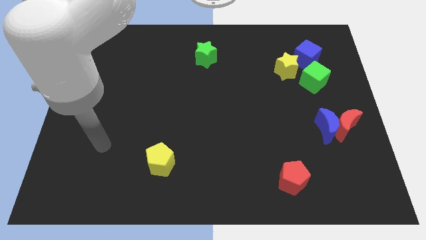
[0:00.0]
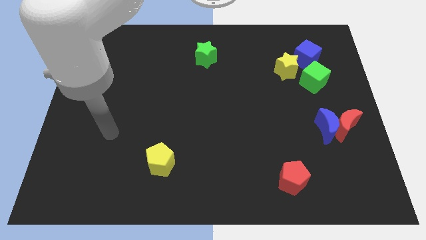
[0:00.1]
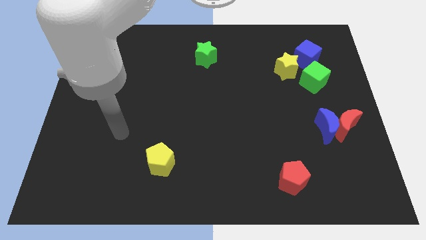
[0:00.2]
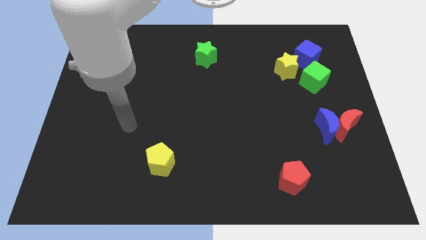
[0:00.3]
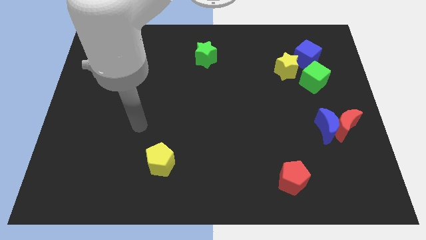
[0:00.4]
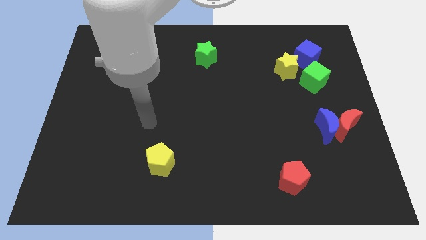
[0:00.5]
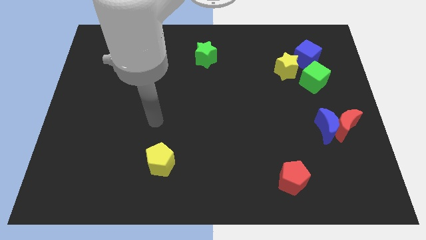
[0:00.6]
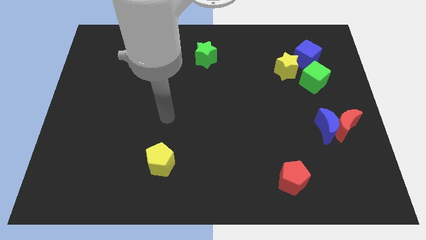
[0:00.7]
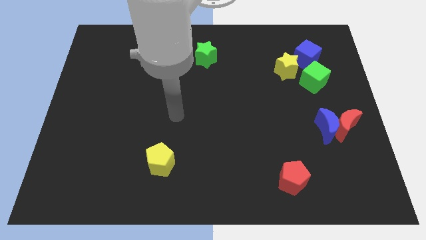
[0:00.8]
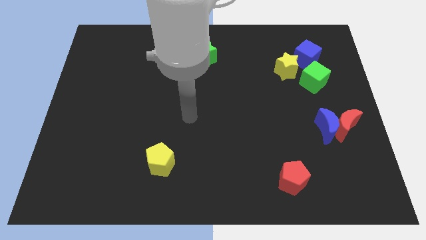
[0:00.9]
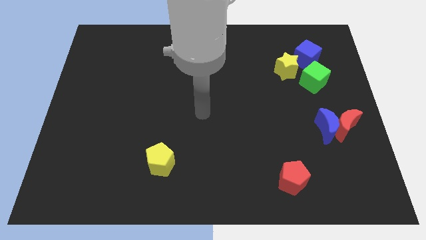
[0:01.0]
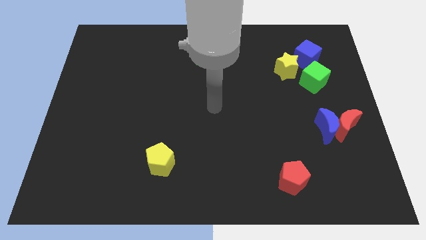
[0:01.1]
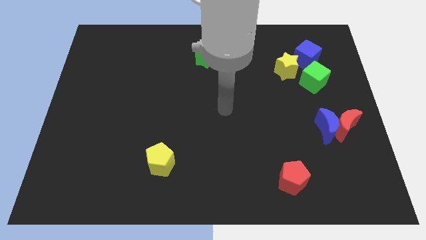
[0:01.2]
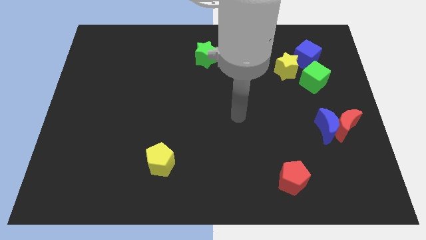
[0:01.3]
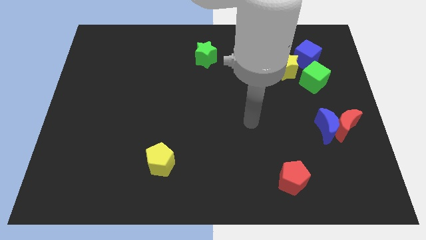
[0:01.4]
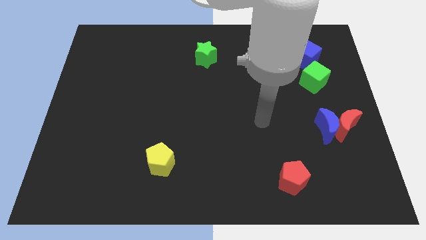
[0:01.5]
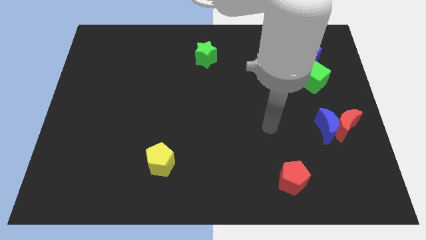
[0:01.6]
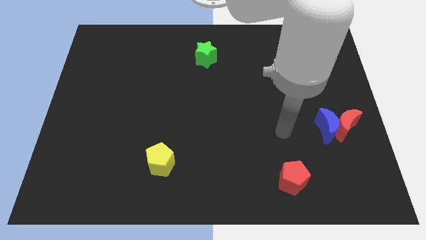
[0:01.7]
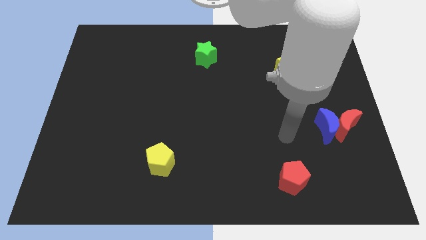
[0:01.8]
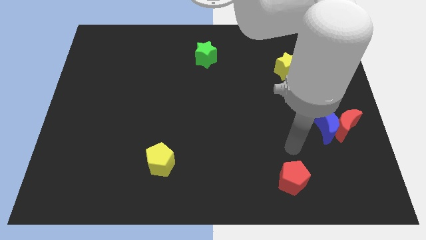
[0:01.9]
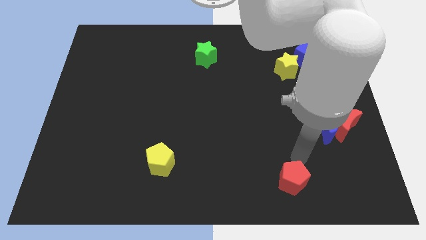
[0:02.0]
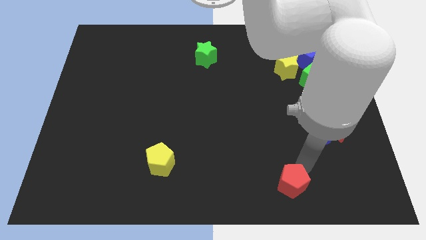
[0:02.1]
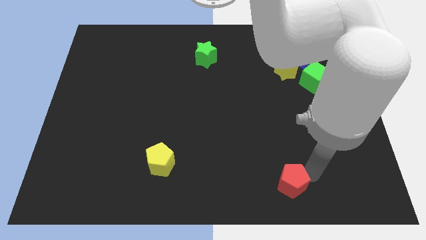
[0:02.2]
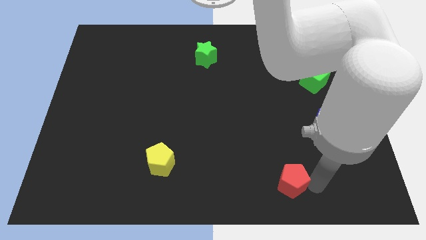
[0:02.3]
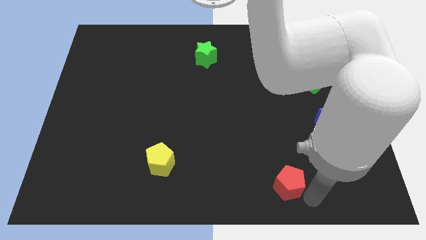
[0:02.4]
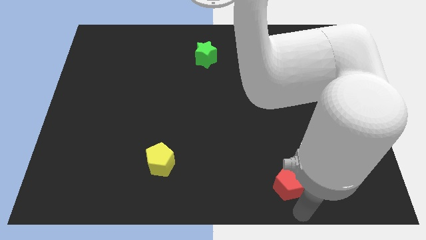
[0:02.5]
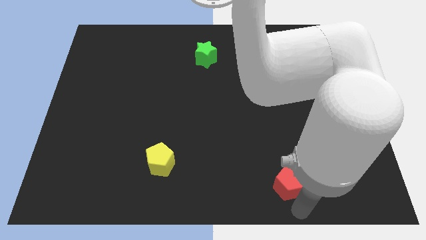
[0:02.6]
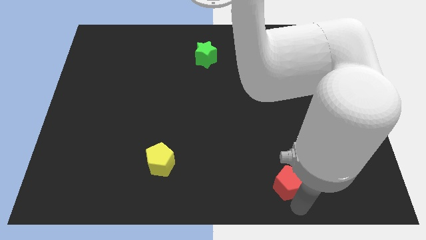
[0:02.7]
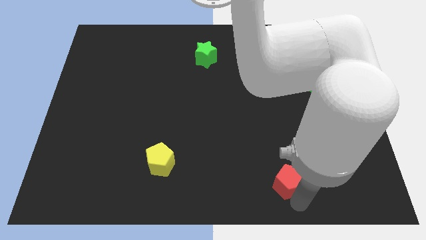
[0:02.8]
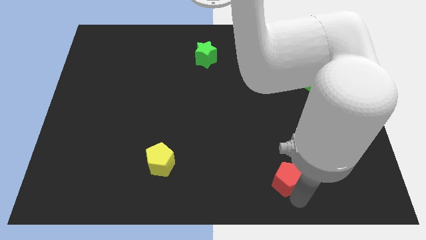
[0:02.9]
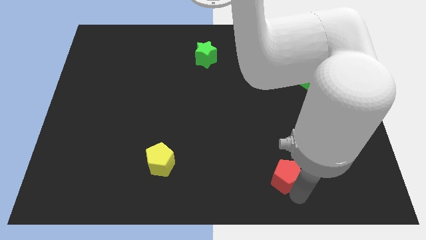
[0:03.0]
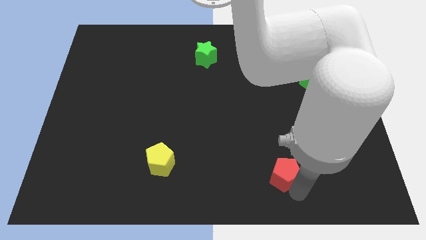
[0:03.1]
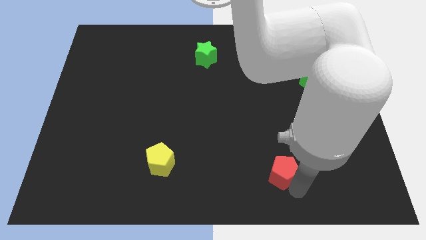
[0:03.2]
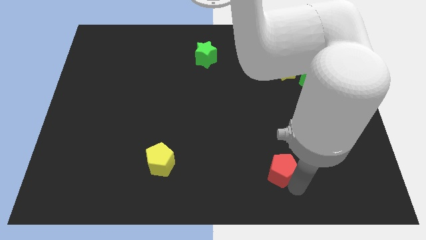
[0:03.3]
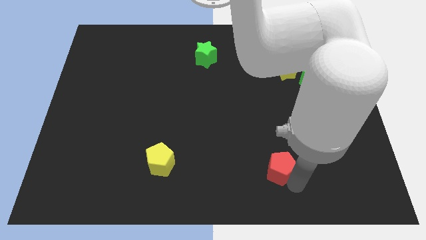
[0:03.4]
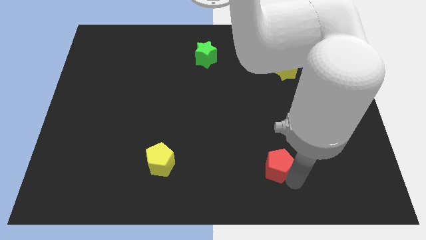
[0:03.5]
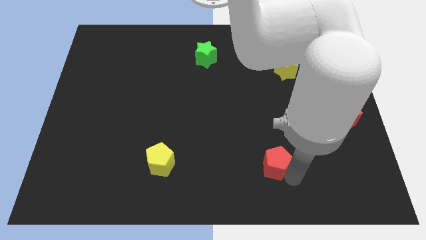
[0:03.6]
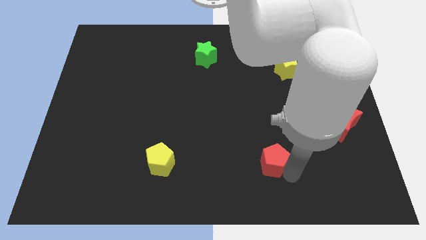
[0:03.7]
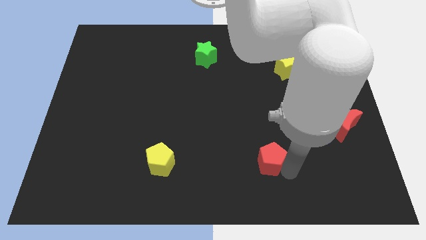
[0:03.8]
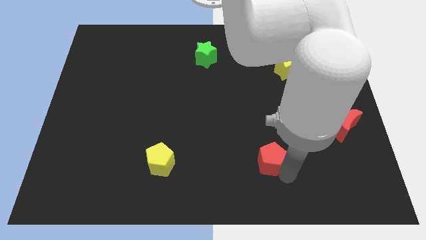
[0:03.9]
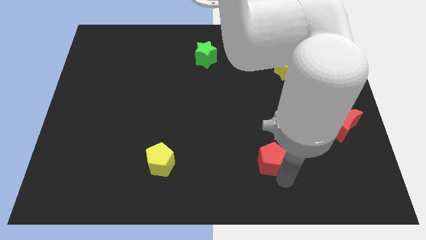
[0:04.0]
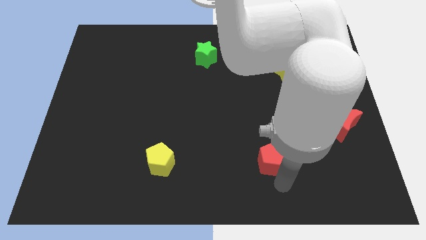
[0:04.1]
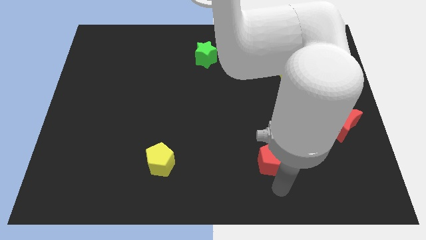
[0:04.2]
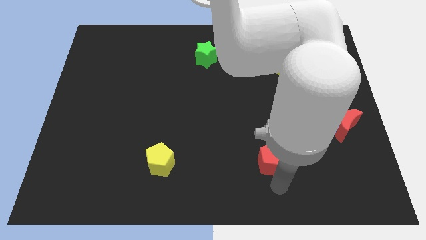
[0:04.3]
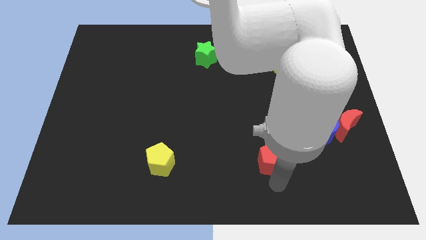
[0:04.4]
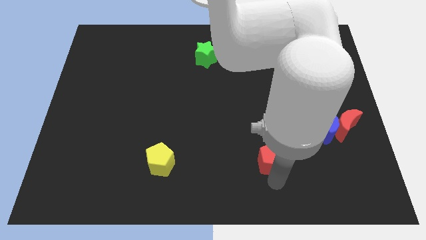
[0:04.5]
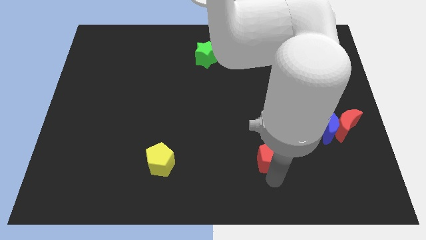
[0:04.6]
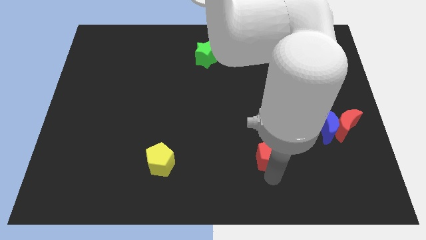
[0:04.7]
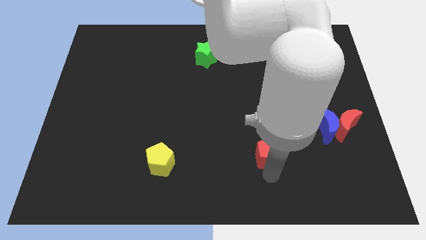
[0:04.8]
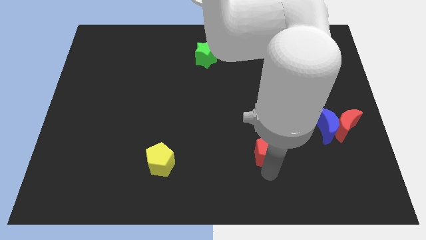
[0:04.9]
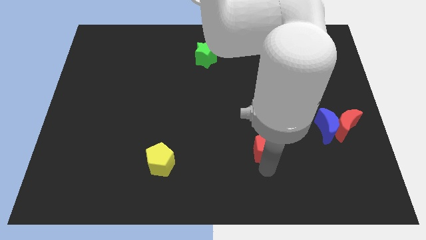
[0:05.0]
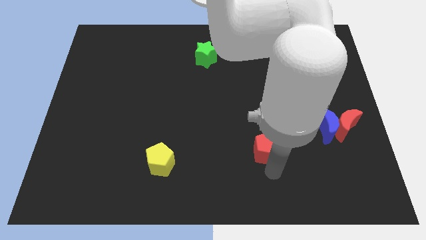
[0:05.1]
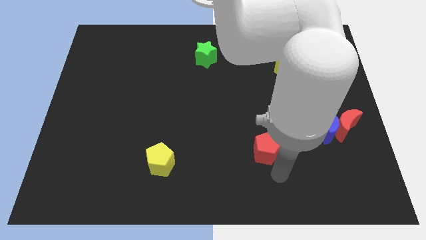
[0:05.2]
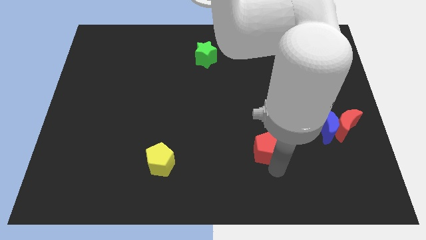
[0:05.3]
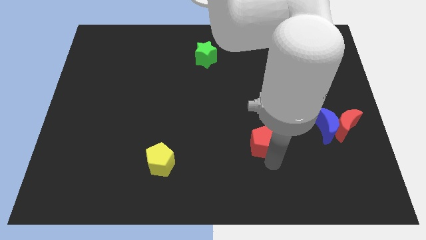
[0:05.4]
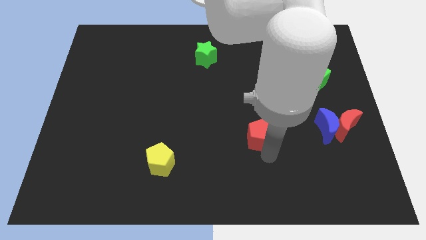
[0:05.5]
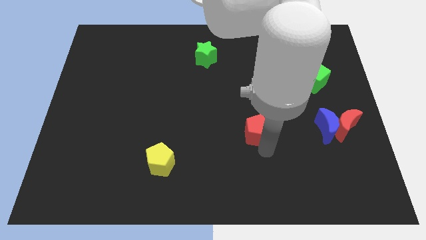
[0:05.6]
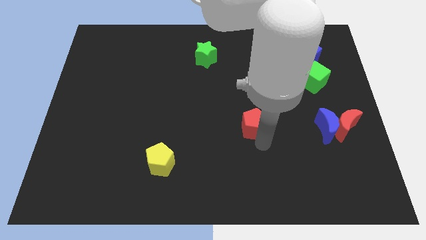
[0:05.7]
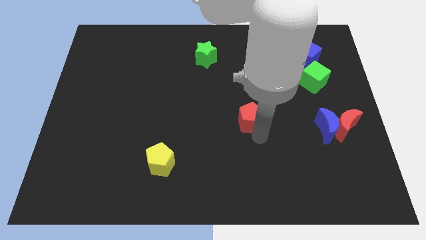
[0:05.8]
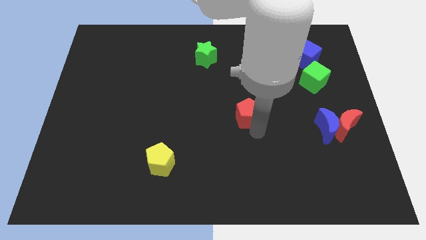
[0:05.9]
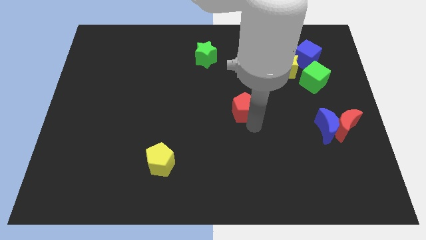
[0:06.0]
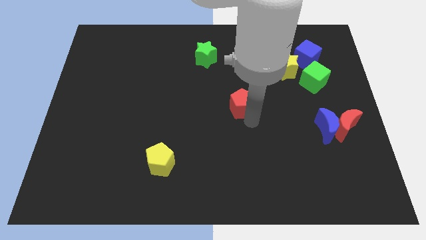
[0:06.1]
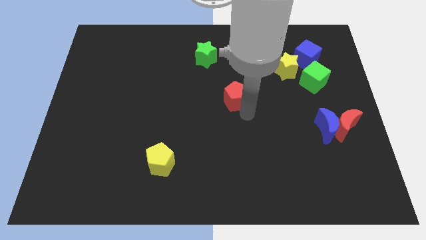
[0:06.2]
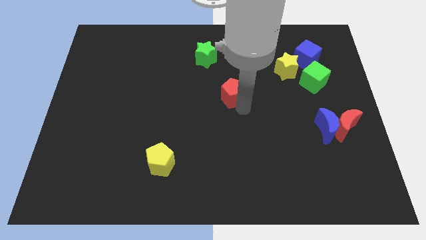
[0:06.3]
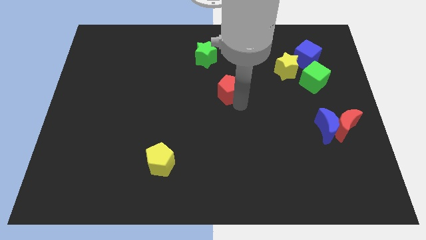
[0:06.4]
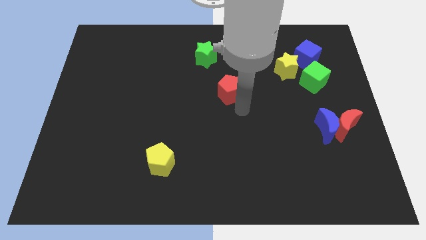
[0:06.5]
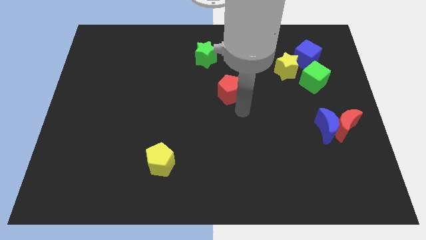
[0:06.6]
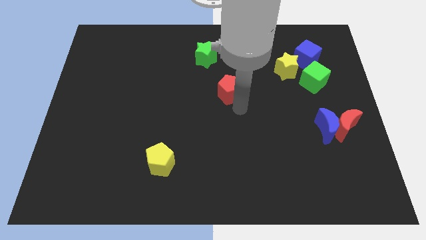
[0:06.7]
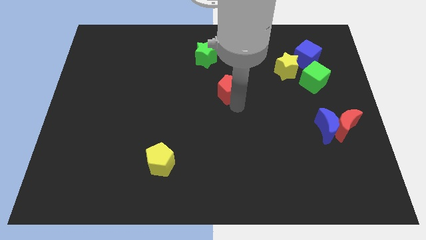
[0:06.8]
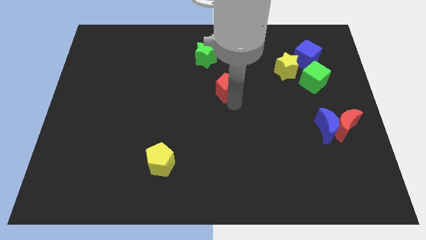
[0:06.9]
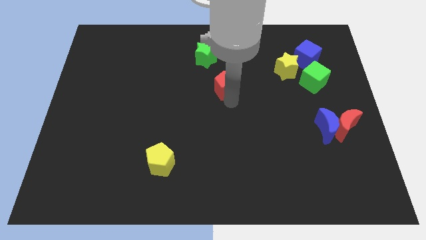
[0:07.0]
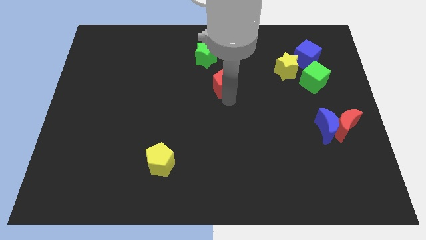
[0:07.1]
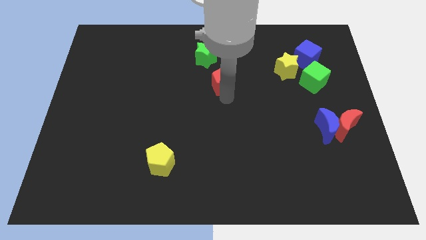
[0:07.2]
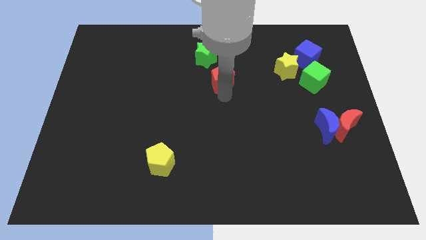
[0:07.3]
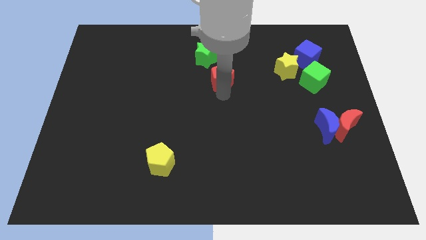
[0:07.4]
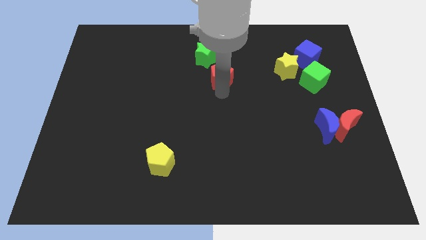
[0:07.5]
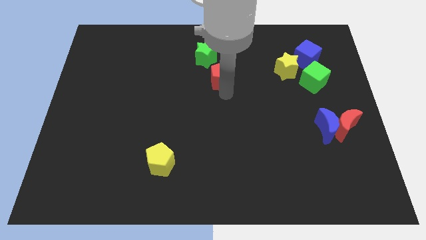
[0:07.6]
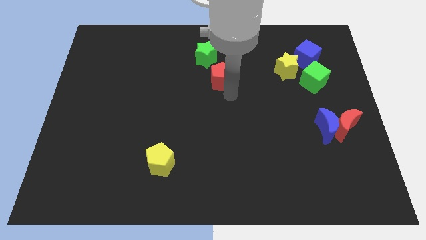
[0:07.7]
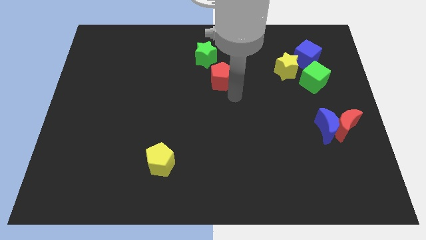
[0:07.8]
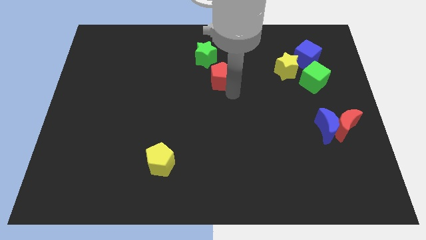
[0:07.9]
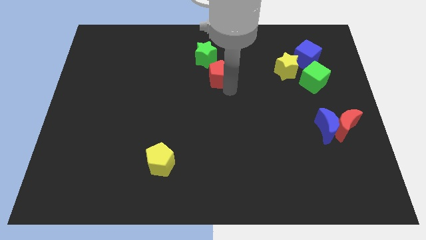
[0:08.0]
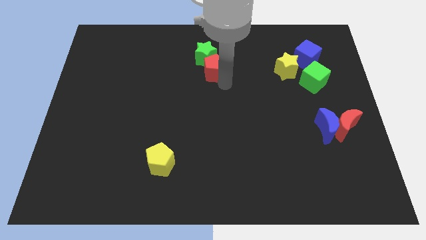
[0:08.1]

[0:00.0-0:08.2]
put the red pentagon to the green star
